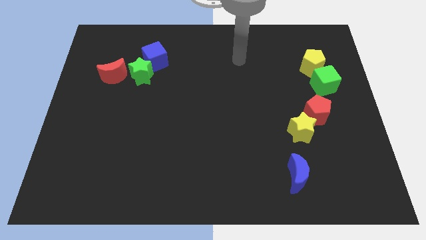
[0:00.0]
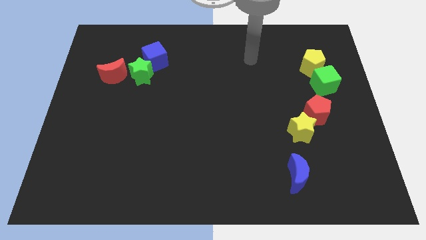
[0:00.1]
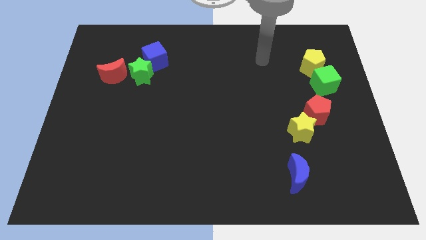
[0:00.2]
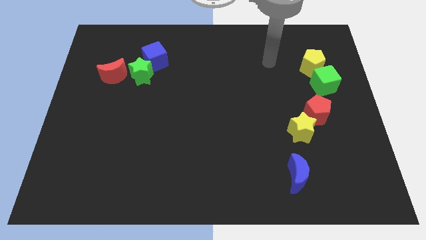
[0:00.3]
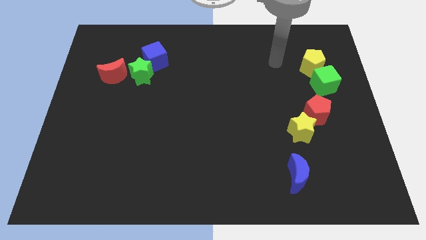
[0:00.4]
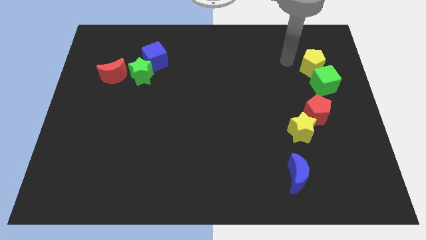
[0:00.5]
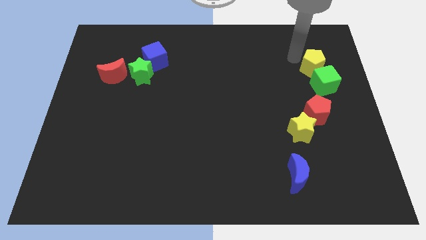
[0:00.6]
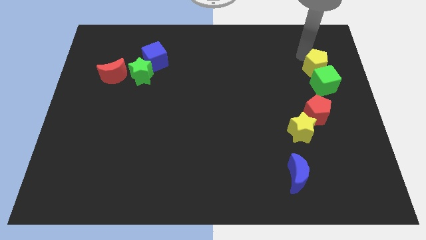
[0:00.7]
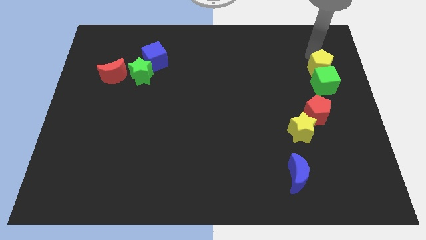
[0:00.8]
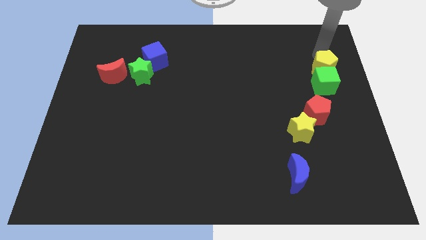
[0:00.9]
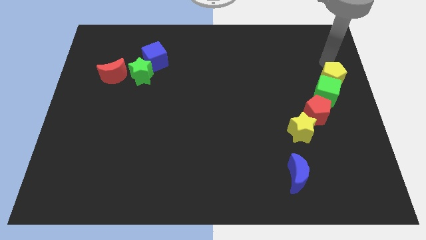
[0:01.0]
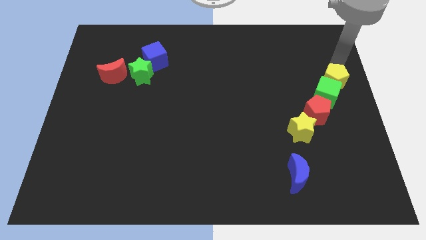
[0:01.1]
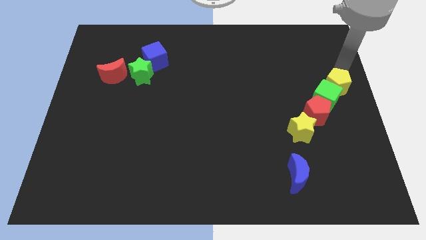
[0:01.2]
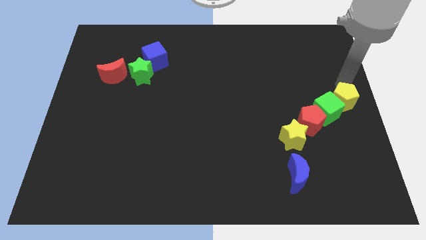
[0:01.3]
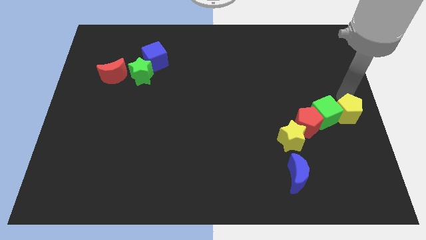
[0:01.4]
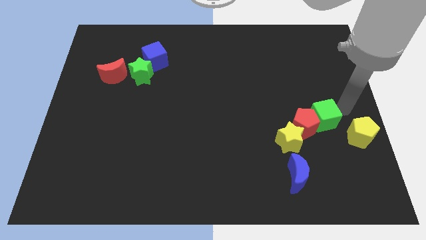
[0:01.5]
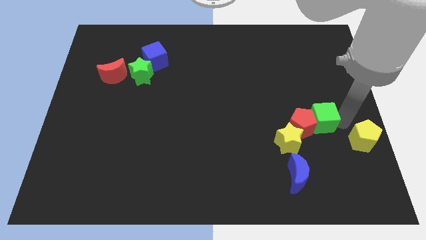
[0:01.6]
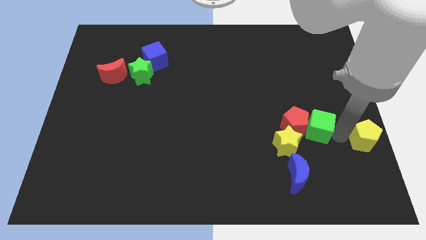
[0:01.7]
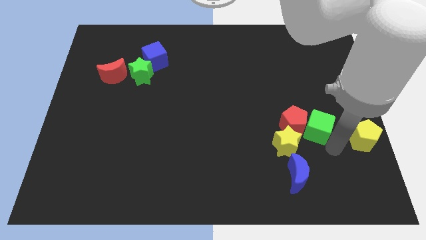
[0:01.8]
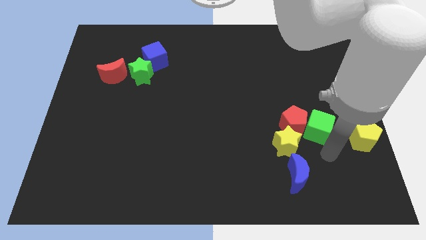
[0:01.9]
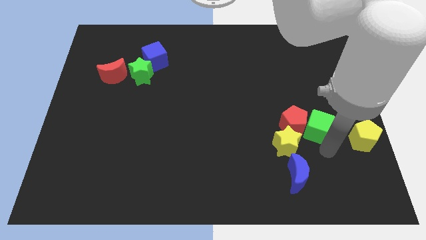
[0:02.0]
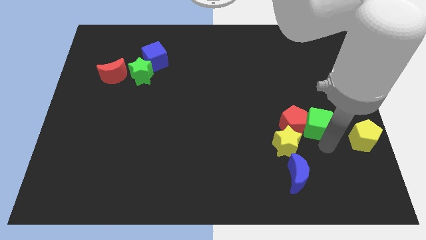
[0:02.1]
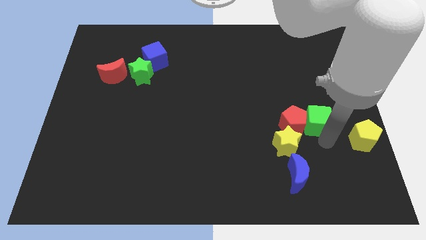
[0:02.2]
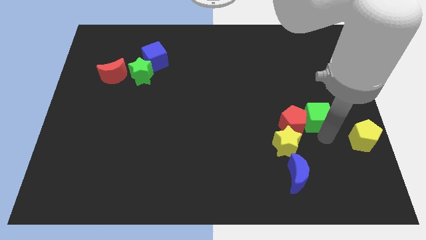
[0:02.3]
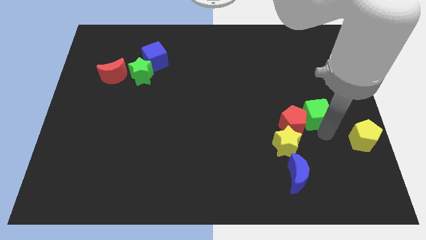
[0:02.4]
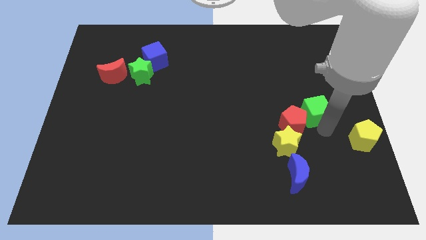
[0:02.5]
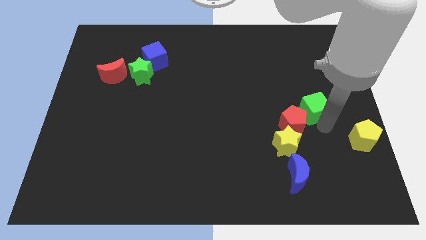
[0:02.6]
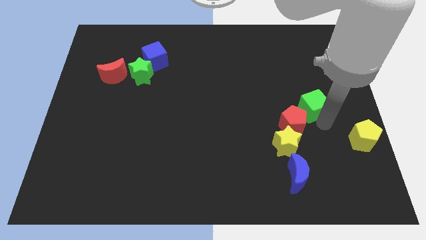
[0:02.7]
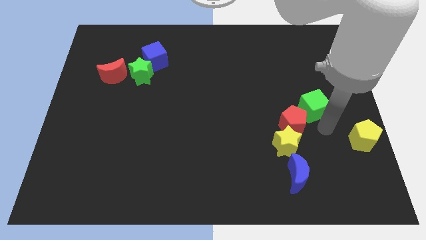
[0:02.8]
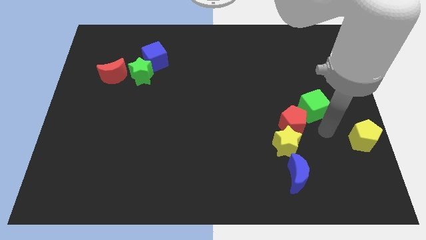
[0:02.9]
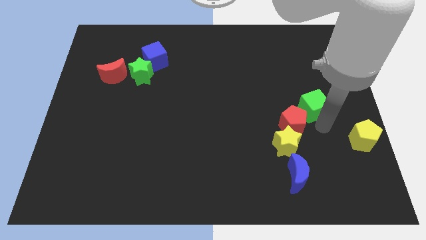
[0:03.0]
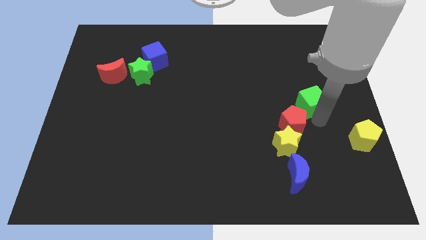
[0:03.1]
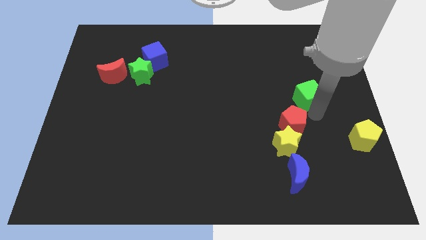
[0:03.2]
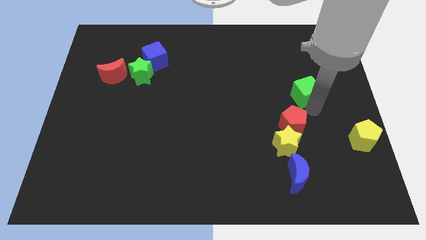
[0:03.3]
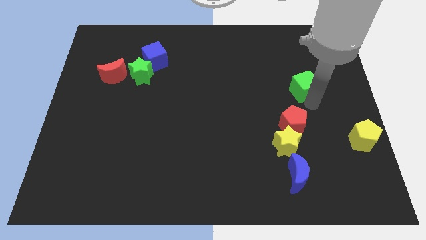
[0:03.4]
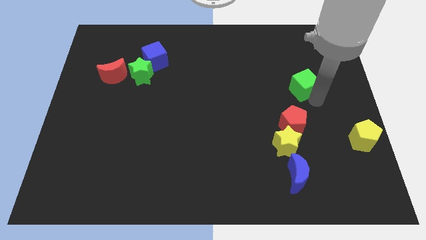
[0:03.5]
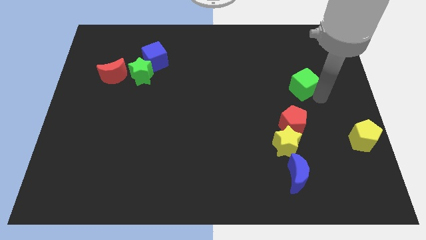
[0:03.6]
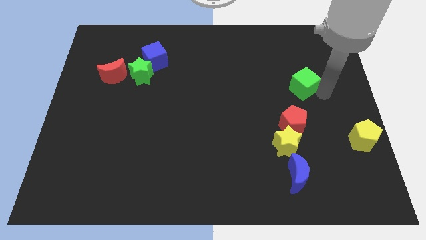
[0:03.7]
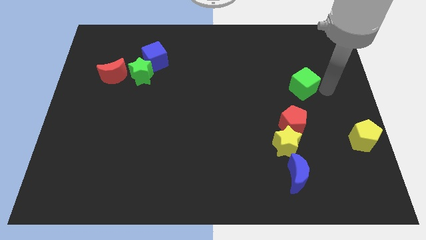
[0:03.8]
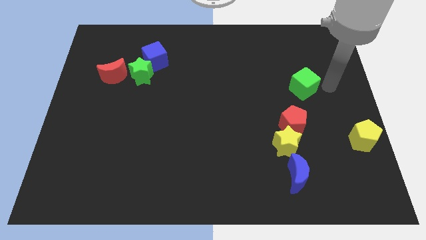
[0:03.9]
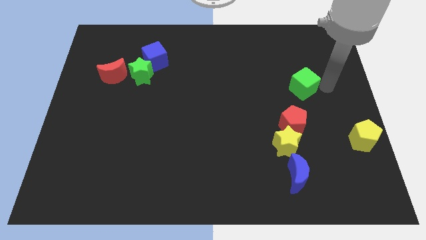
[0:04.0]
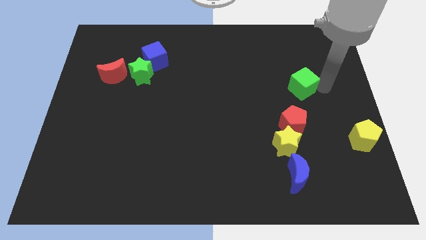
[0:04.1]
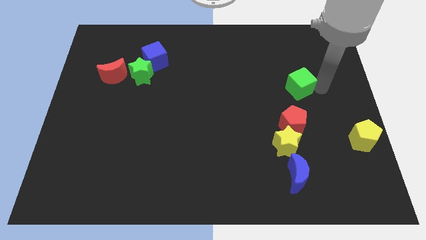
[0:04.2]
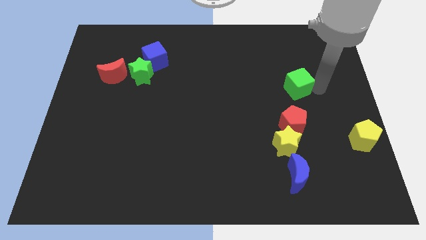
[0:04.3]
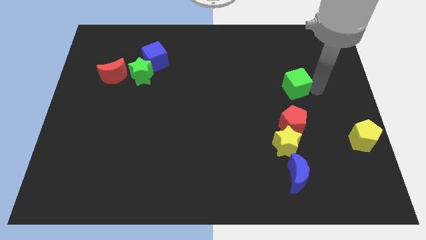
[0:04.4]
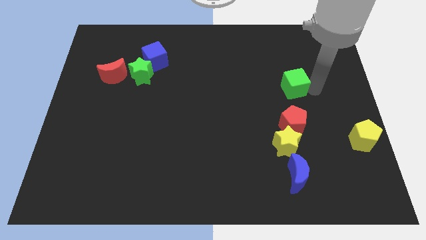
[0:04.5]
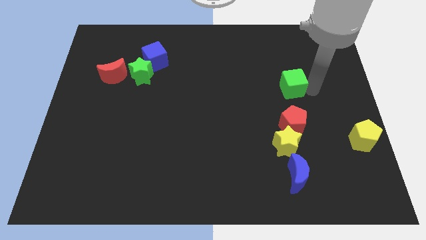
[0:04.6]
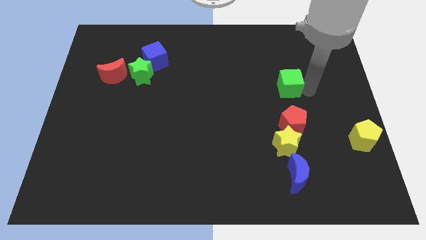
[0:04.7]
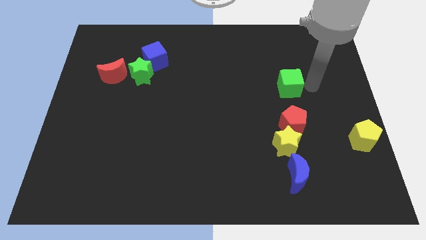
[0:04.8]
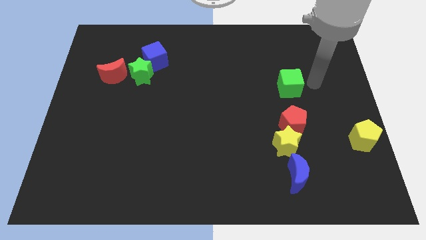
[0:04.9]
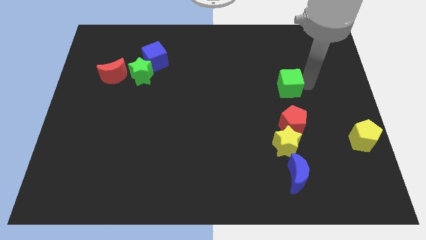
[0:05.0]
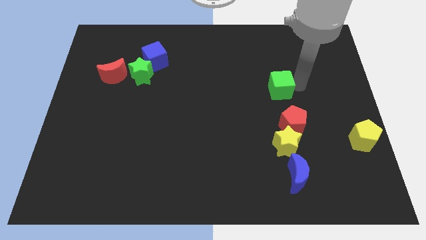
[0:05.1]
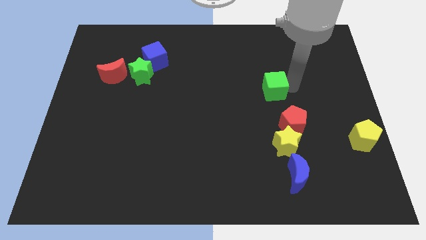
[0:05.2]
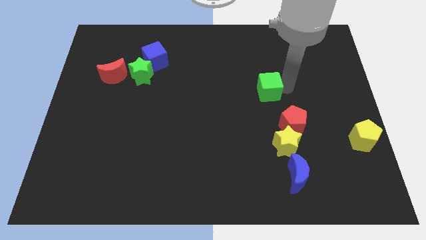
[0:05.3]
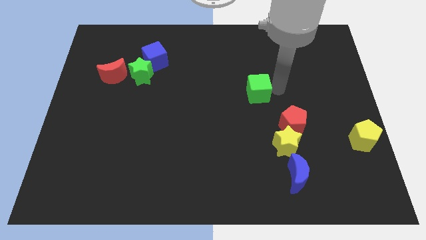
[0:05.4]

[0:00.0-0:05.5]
put the green cube to the center

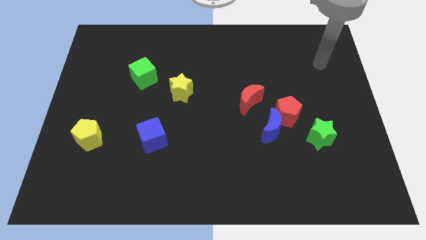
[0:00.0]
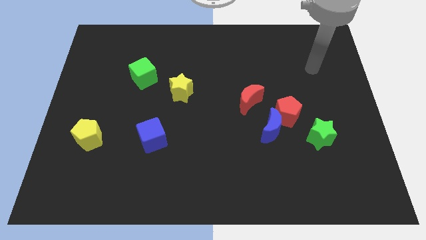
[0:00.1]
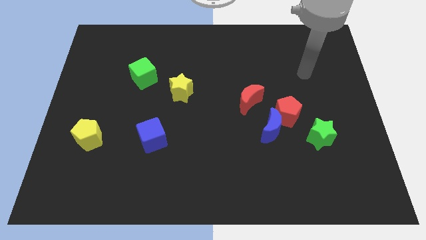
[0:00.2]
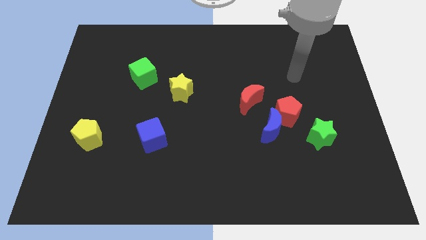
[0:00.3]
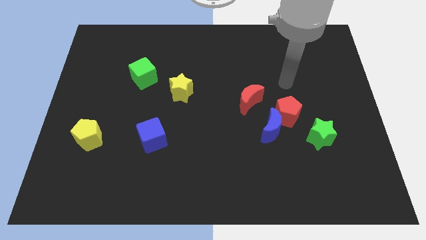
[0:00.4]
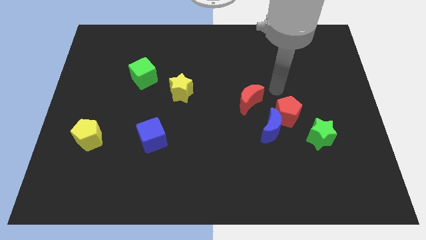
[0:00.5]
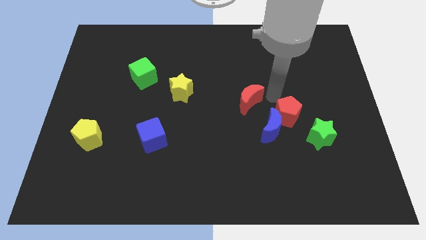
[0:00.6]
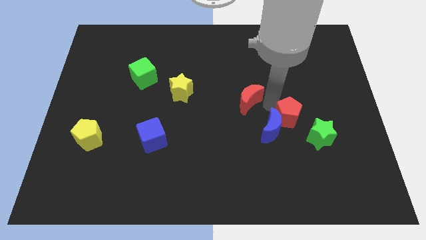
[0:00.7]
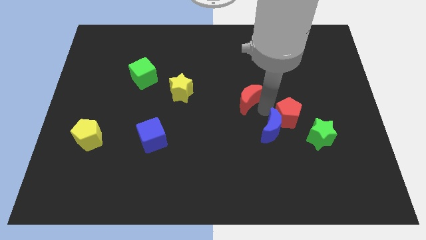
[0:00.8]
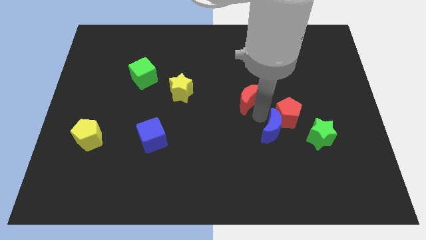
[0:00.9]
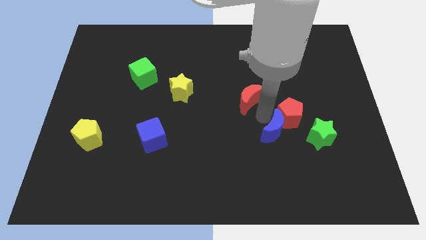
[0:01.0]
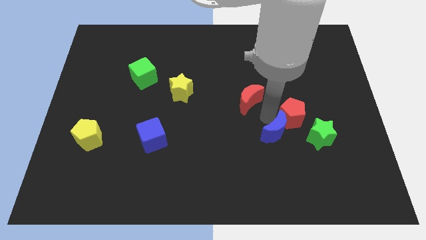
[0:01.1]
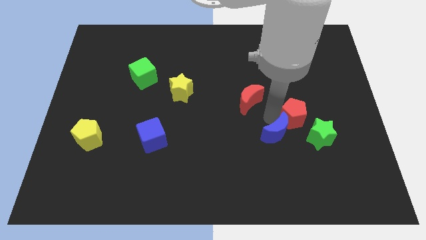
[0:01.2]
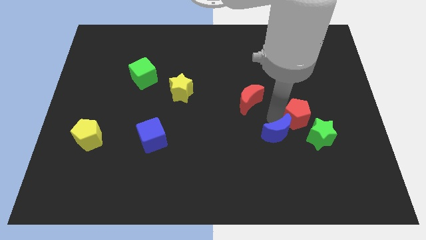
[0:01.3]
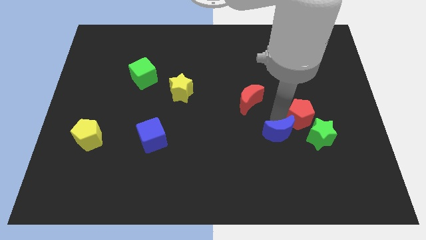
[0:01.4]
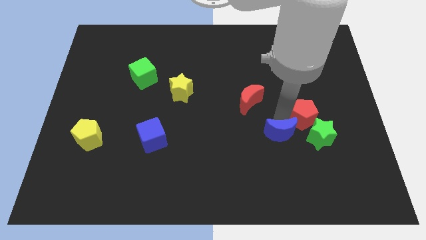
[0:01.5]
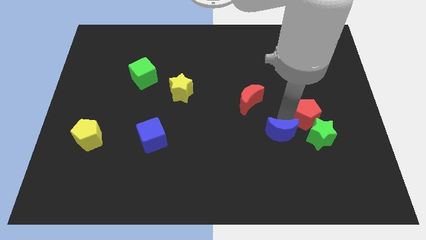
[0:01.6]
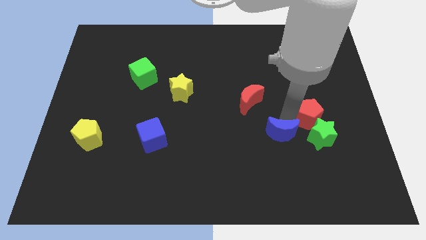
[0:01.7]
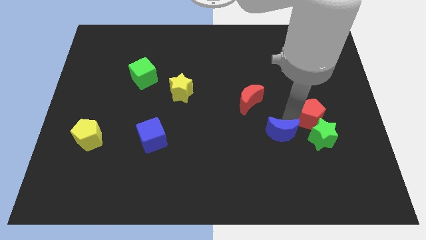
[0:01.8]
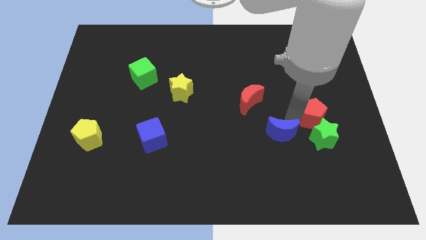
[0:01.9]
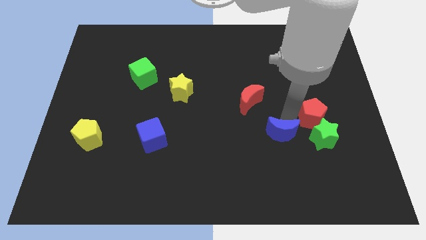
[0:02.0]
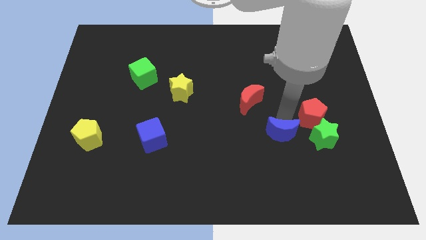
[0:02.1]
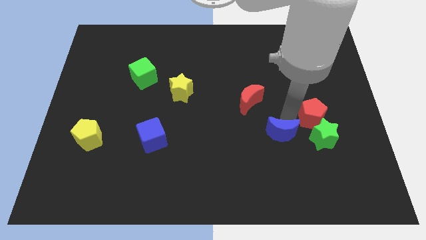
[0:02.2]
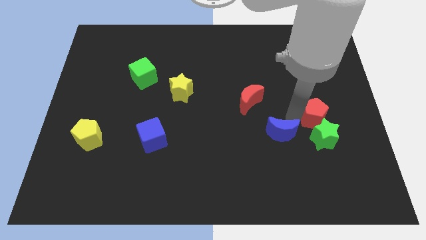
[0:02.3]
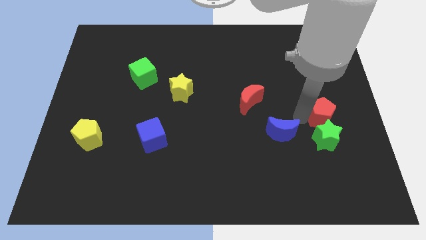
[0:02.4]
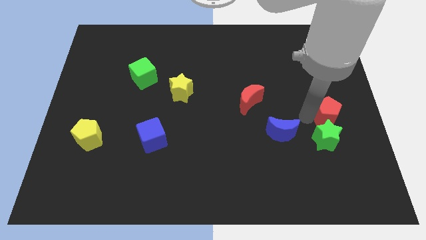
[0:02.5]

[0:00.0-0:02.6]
slide the red pentagon to the right side of the board
